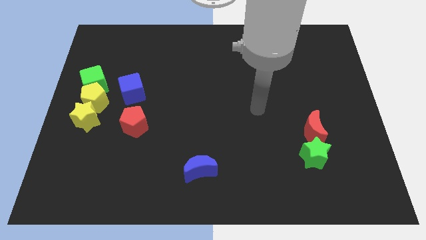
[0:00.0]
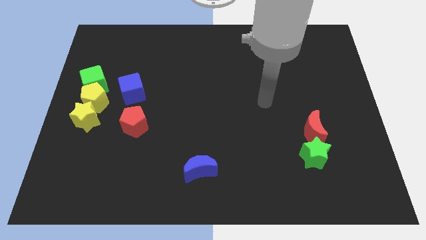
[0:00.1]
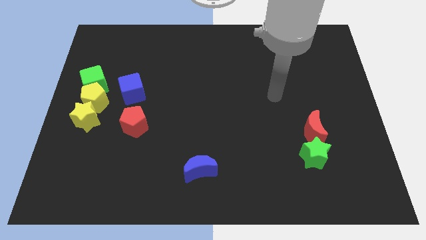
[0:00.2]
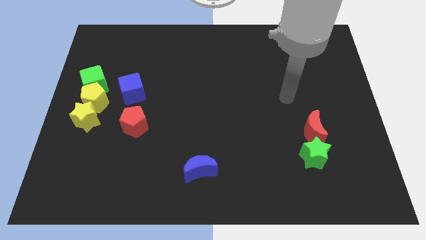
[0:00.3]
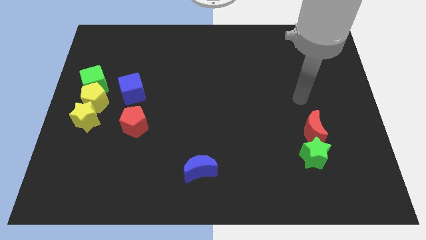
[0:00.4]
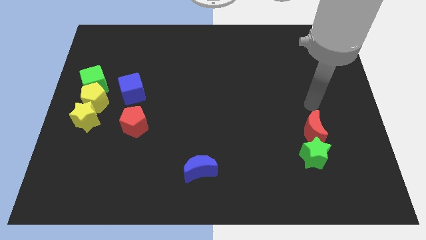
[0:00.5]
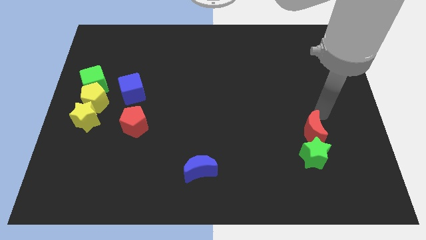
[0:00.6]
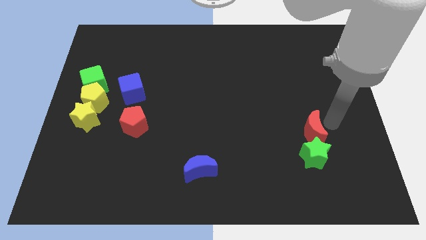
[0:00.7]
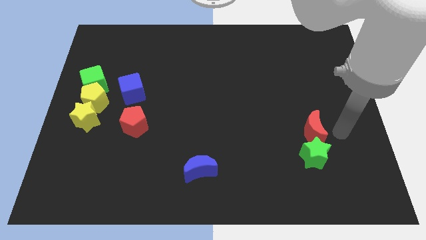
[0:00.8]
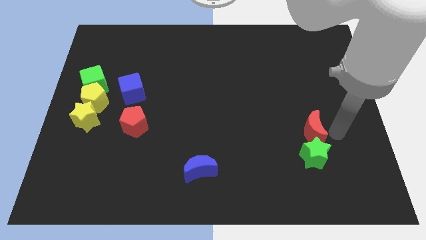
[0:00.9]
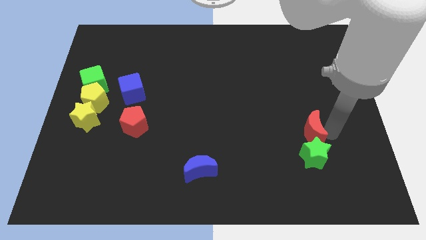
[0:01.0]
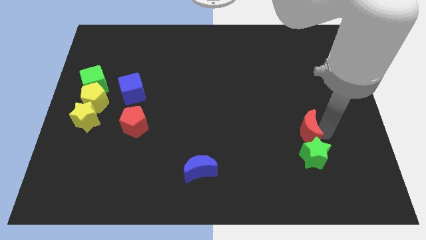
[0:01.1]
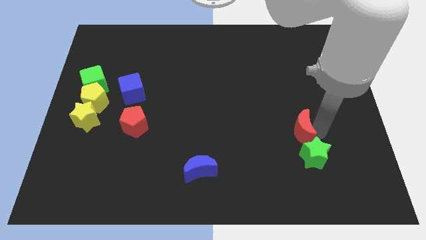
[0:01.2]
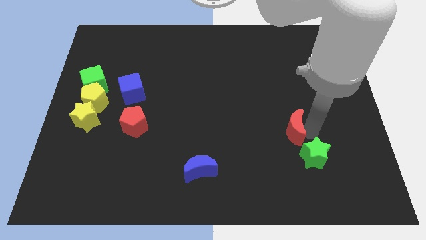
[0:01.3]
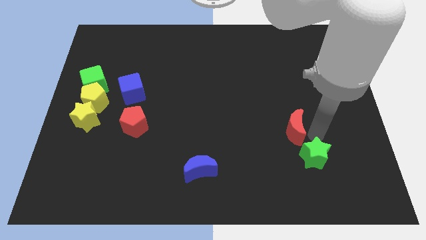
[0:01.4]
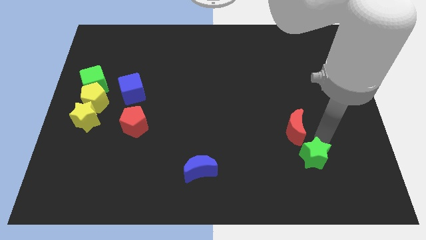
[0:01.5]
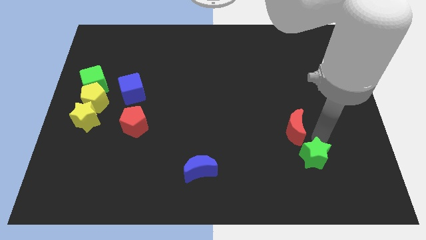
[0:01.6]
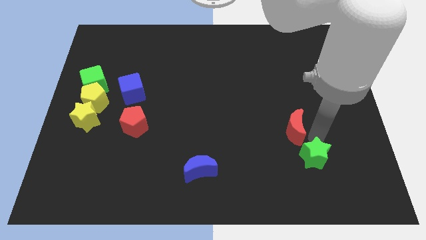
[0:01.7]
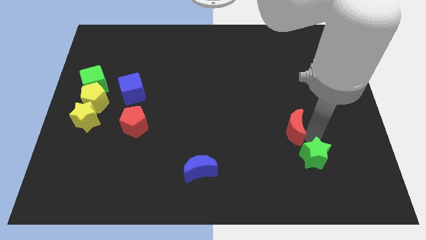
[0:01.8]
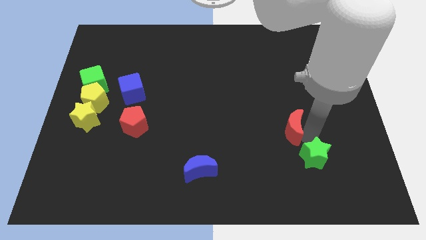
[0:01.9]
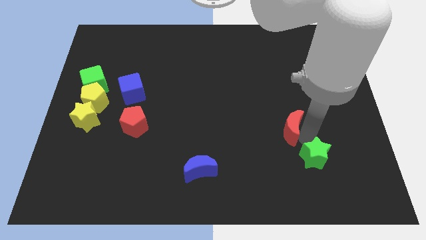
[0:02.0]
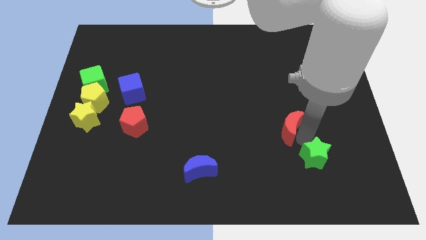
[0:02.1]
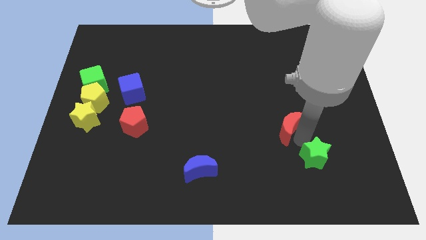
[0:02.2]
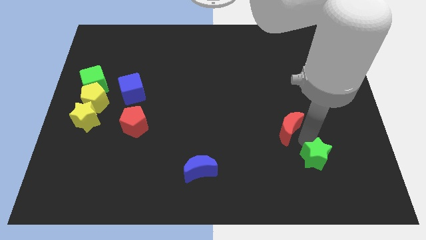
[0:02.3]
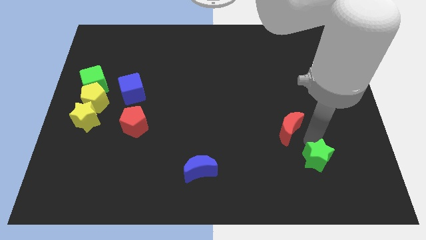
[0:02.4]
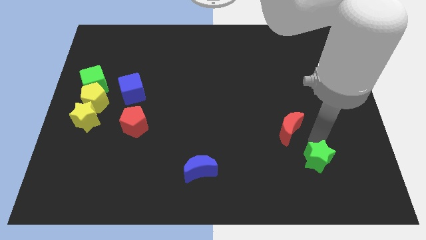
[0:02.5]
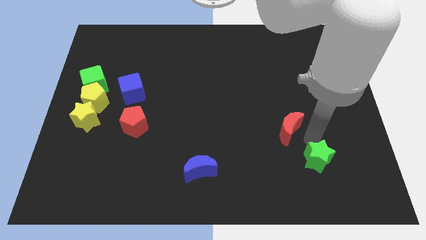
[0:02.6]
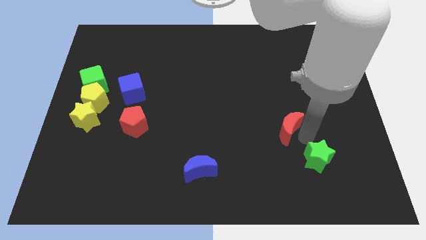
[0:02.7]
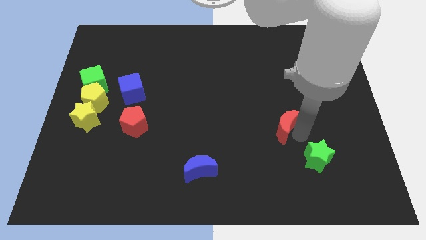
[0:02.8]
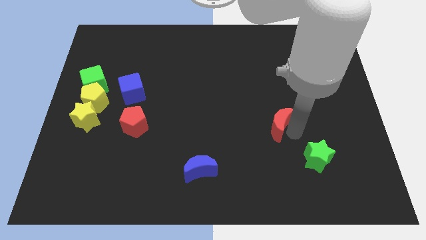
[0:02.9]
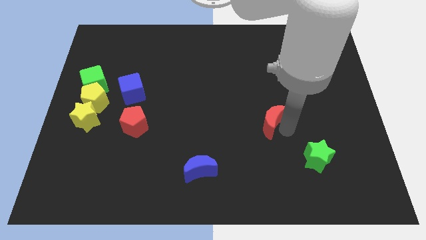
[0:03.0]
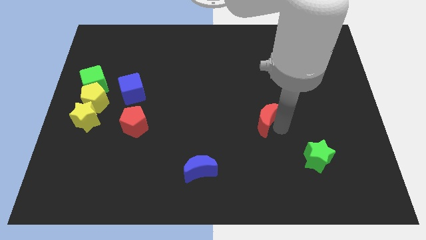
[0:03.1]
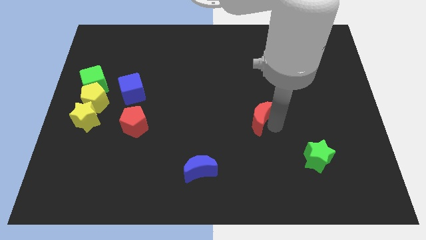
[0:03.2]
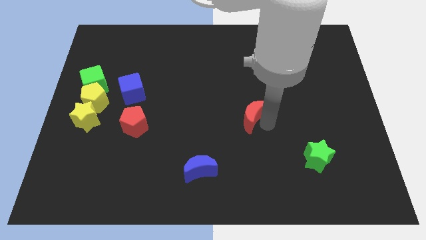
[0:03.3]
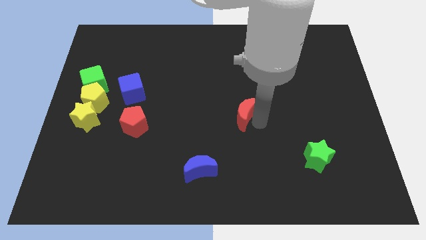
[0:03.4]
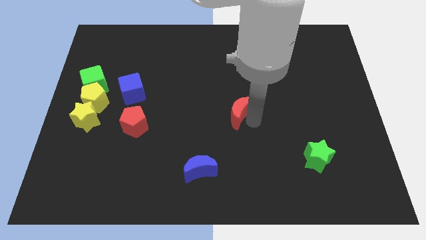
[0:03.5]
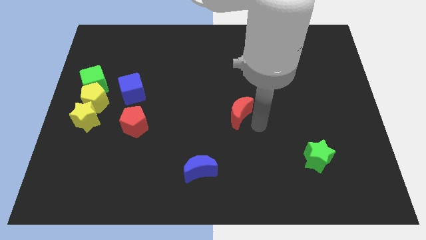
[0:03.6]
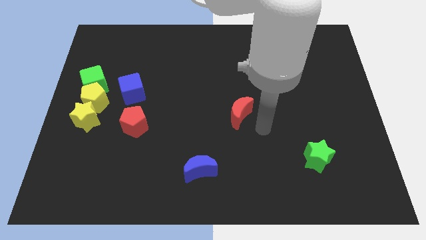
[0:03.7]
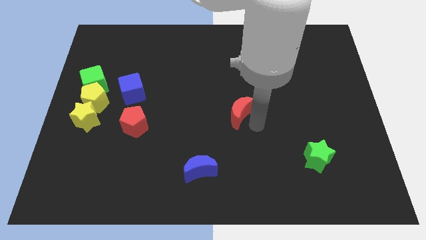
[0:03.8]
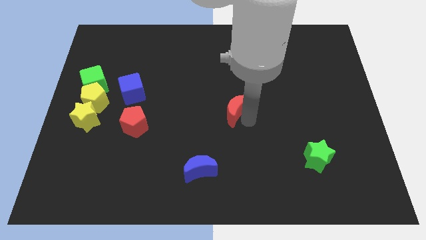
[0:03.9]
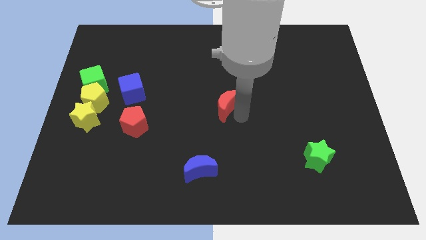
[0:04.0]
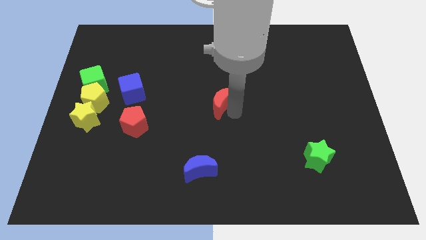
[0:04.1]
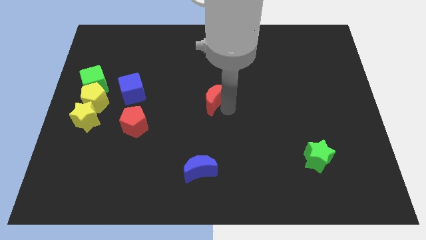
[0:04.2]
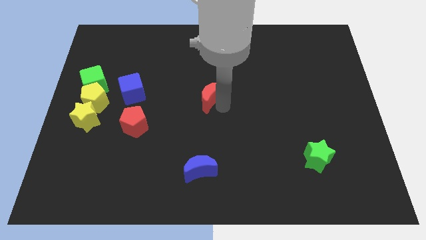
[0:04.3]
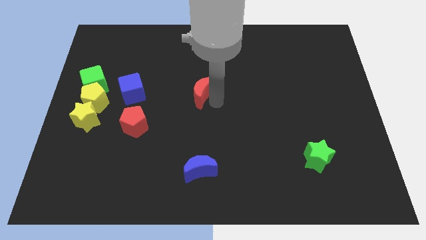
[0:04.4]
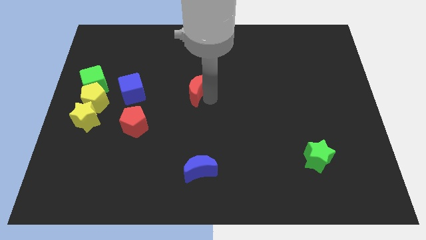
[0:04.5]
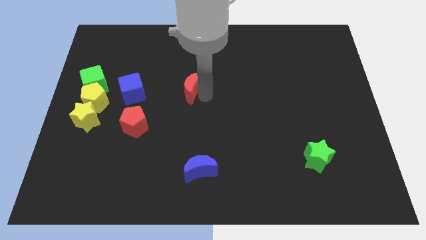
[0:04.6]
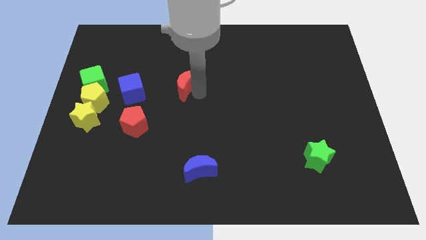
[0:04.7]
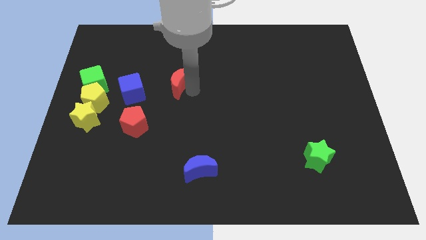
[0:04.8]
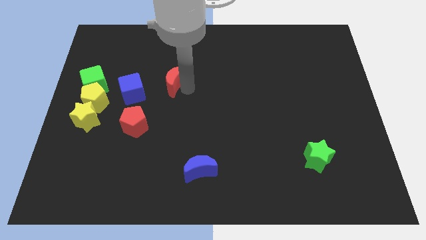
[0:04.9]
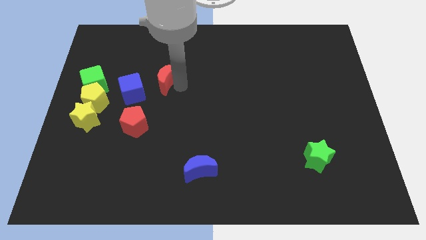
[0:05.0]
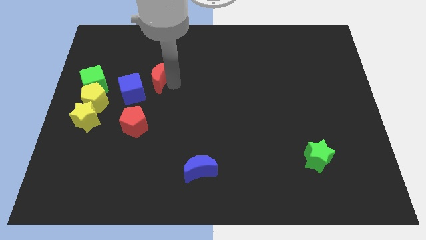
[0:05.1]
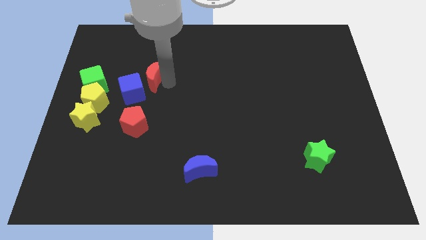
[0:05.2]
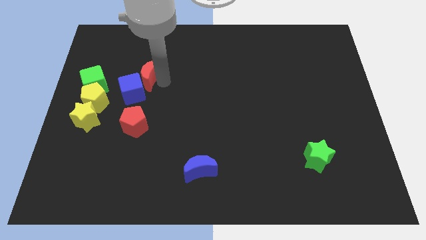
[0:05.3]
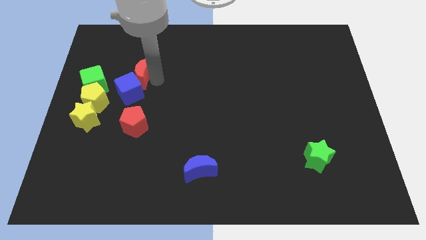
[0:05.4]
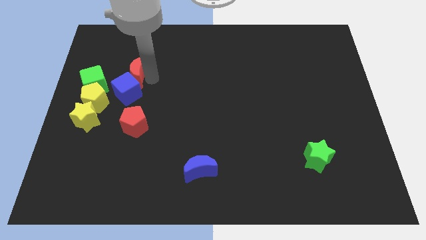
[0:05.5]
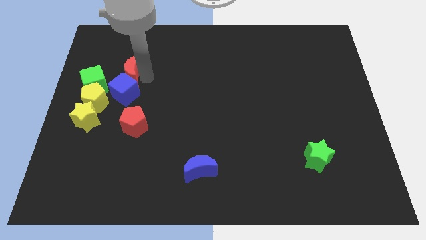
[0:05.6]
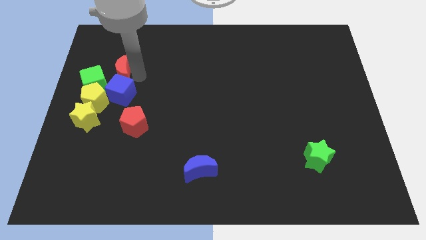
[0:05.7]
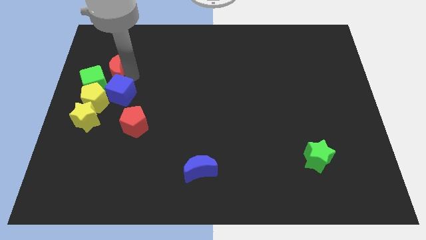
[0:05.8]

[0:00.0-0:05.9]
push the red moon to the top of the yellow pentagon

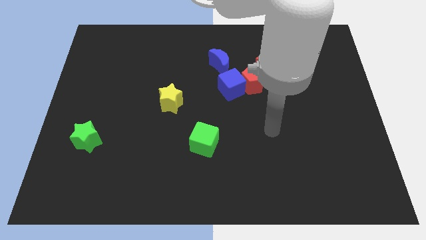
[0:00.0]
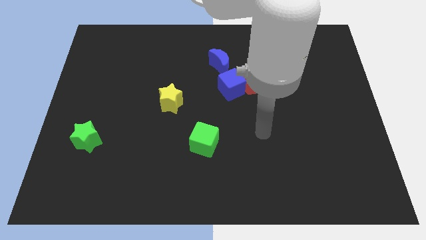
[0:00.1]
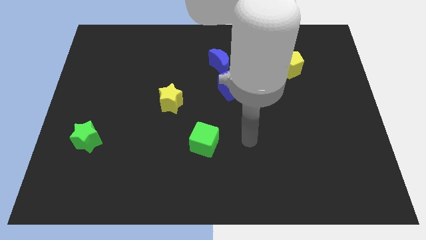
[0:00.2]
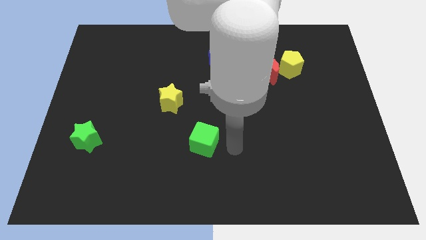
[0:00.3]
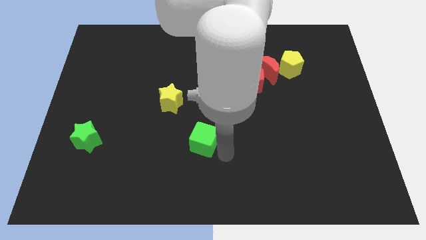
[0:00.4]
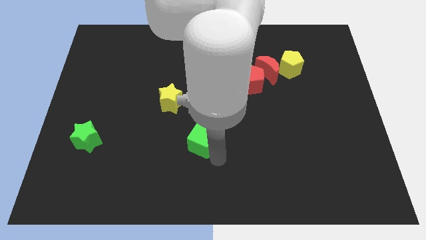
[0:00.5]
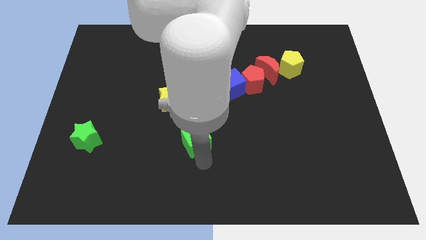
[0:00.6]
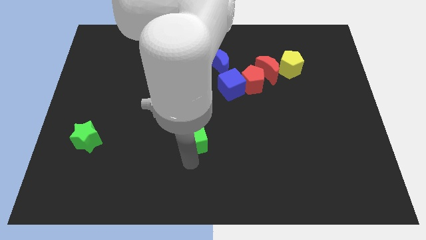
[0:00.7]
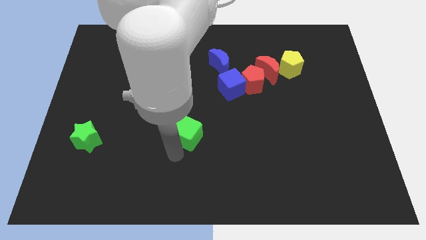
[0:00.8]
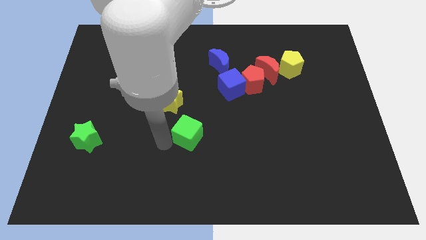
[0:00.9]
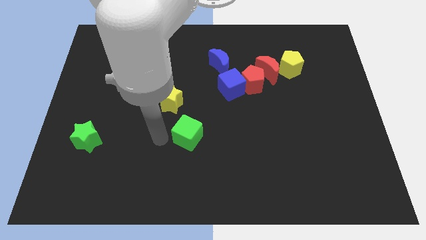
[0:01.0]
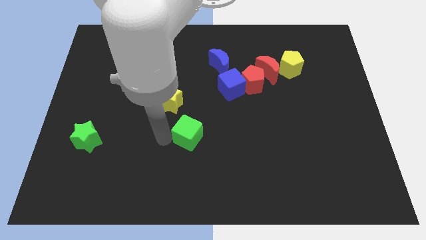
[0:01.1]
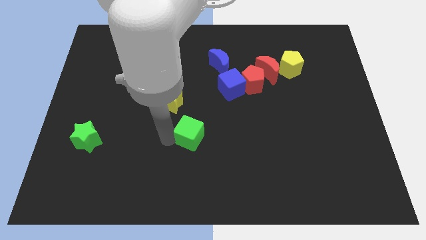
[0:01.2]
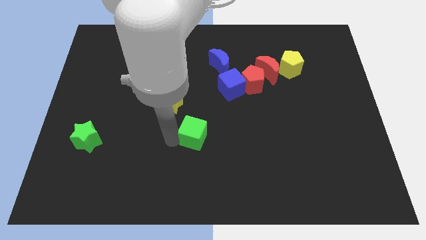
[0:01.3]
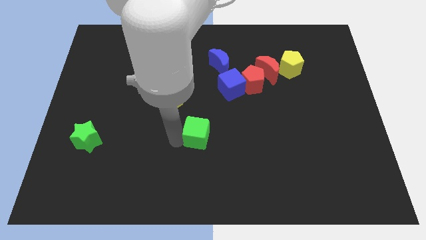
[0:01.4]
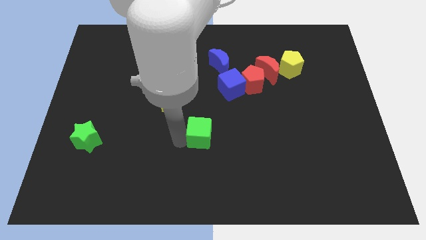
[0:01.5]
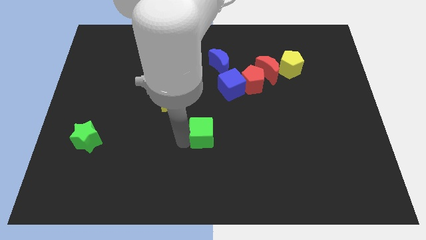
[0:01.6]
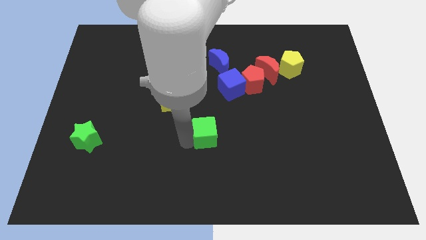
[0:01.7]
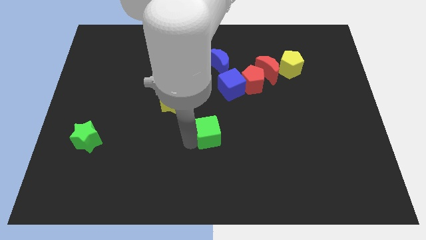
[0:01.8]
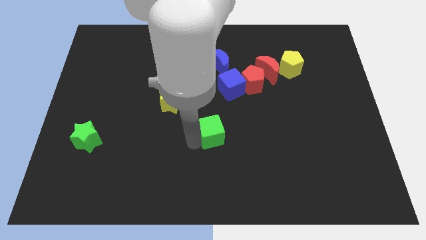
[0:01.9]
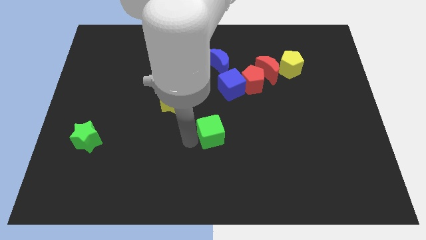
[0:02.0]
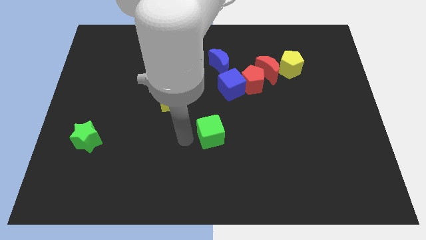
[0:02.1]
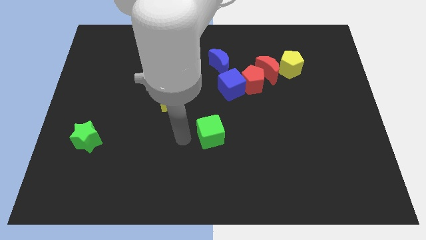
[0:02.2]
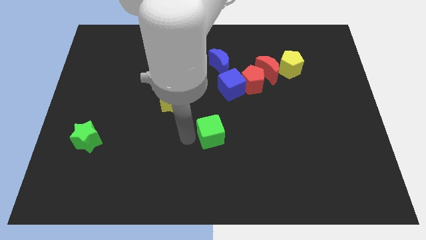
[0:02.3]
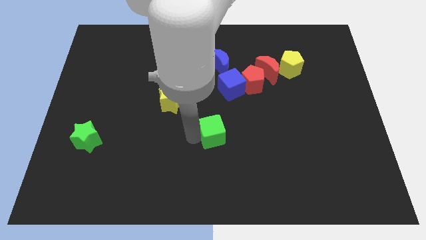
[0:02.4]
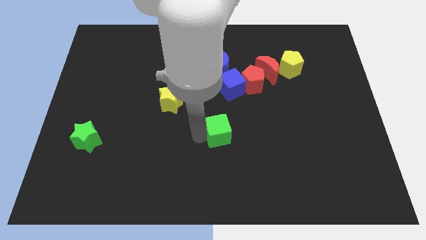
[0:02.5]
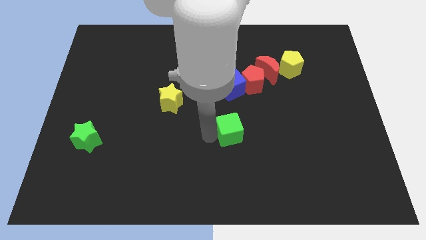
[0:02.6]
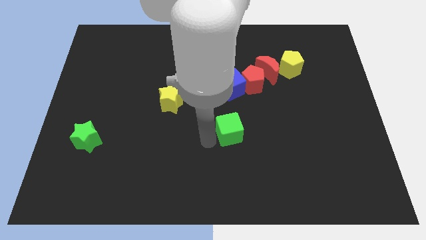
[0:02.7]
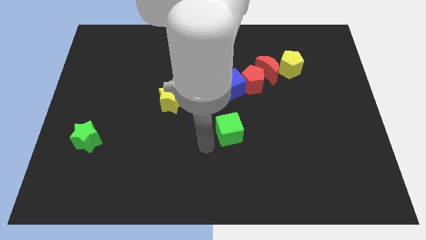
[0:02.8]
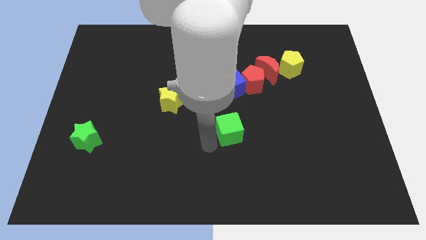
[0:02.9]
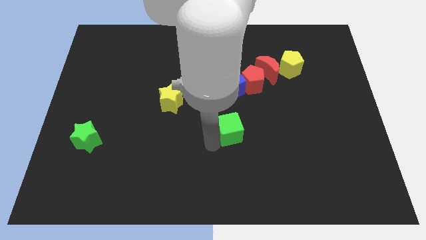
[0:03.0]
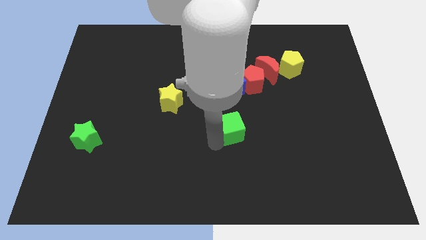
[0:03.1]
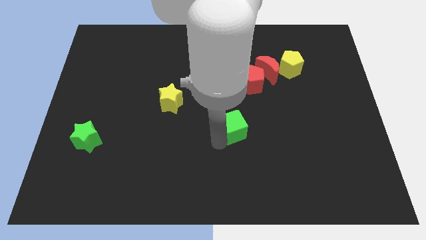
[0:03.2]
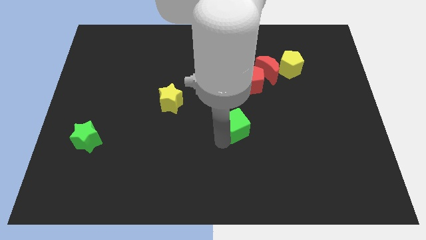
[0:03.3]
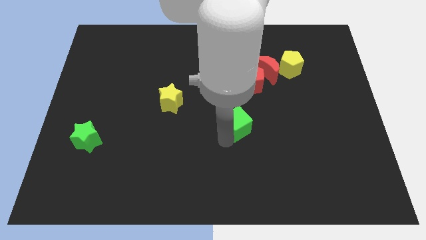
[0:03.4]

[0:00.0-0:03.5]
slide the green cube below the red pentagon
